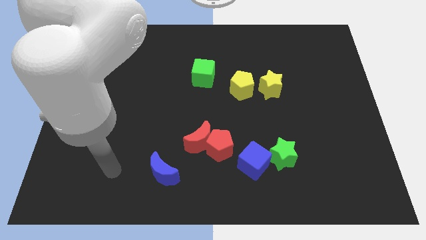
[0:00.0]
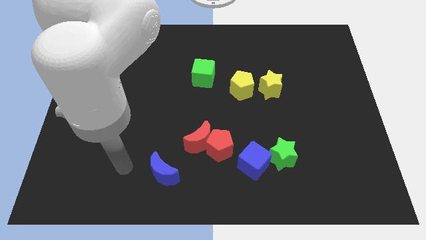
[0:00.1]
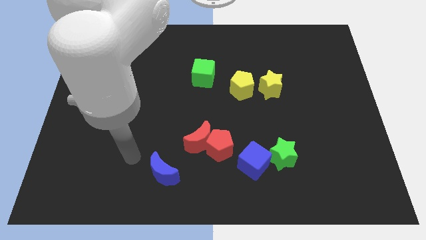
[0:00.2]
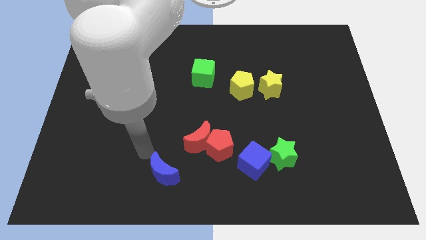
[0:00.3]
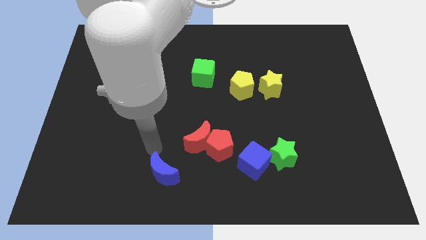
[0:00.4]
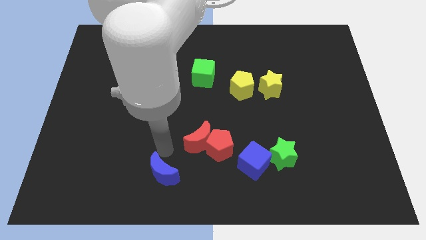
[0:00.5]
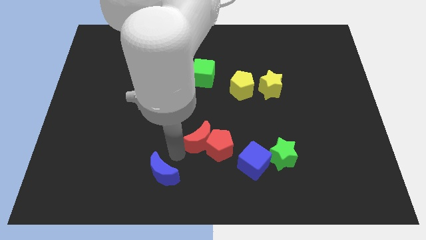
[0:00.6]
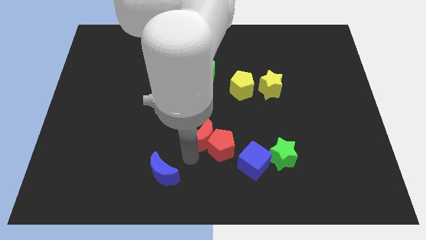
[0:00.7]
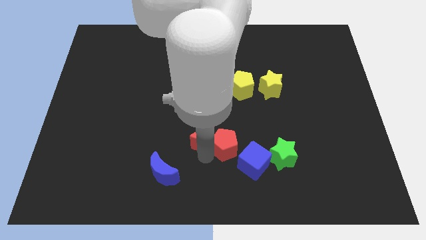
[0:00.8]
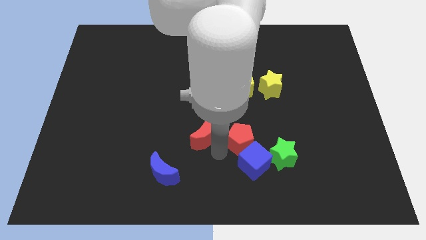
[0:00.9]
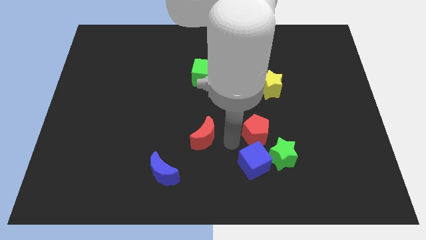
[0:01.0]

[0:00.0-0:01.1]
pull the red moon apart from the red pentagon

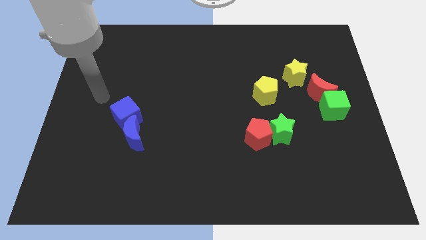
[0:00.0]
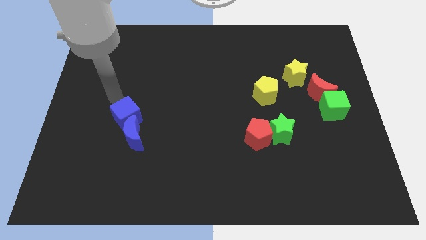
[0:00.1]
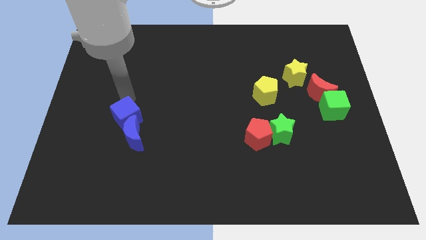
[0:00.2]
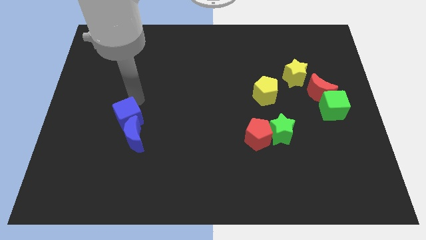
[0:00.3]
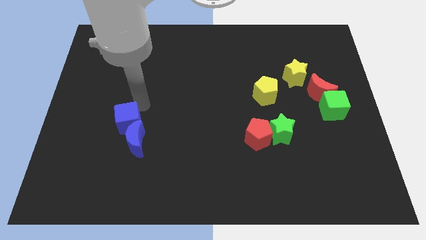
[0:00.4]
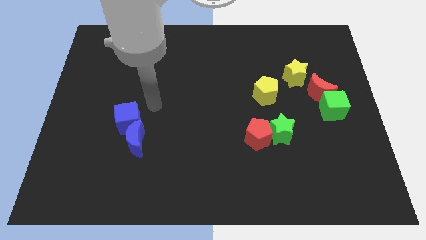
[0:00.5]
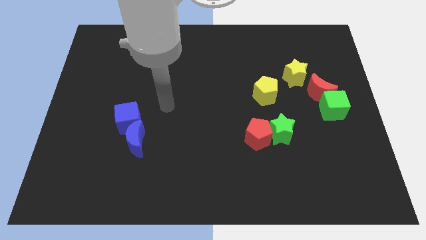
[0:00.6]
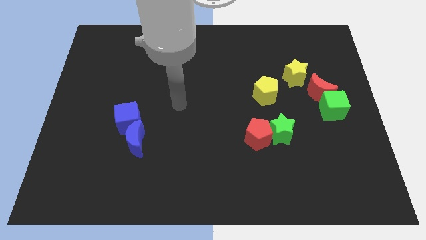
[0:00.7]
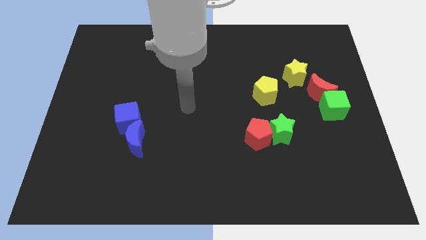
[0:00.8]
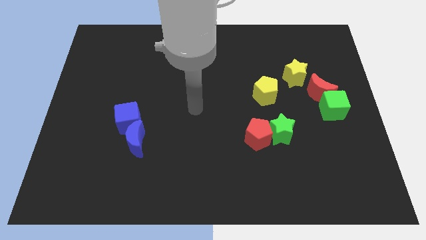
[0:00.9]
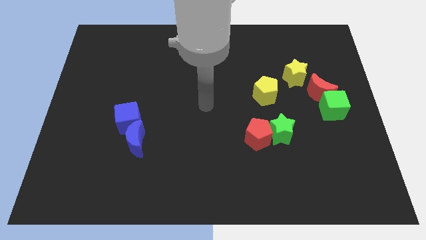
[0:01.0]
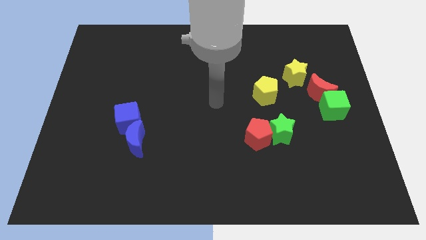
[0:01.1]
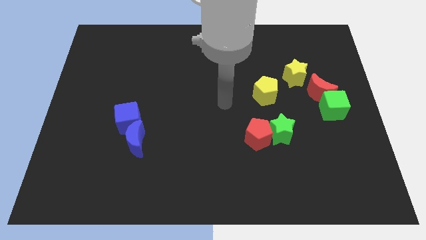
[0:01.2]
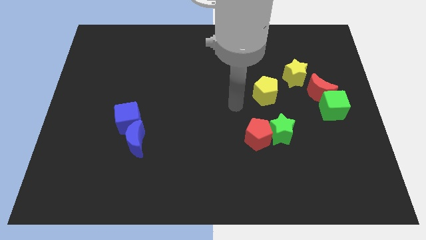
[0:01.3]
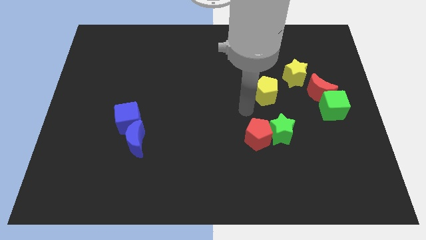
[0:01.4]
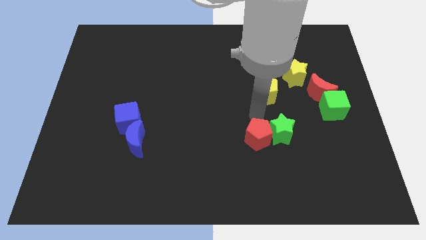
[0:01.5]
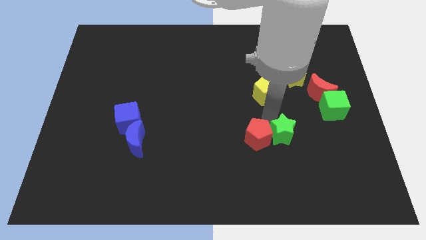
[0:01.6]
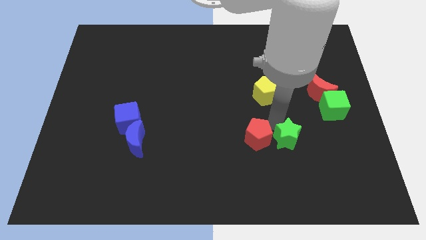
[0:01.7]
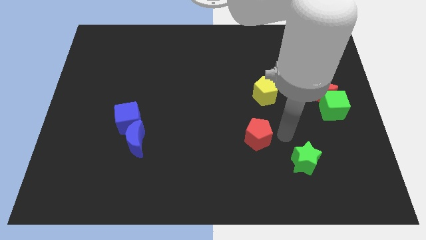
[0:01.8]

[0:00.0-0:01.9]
move the red pentagon away from the green star

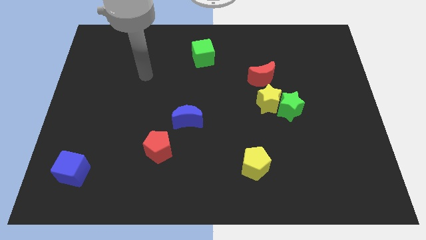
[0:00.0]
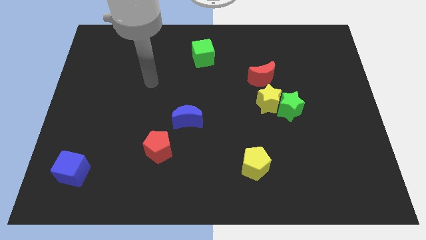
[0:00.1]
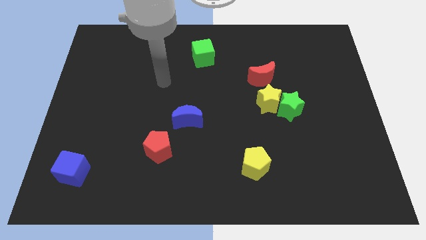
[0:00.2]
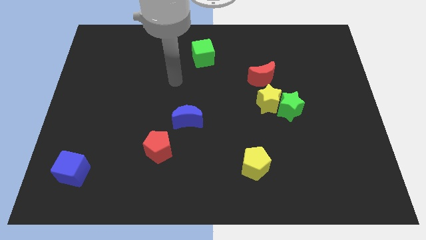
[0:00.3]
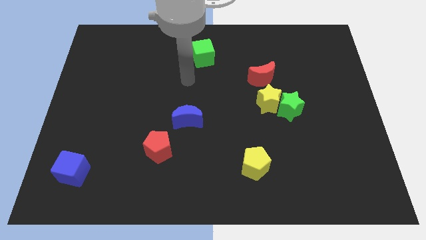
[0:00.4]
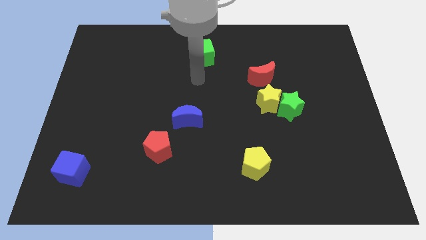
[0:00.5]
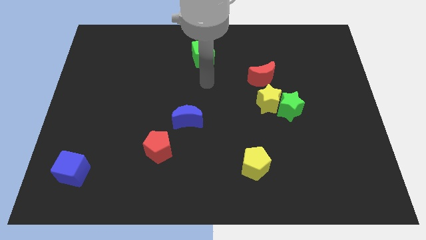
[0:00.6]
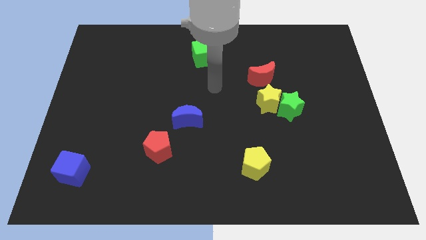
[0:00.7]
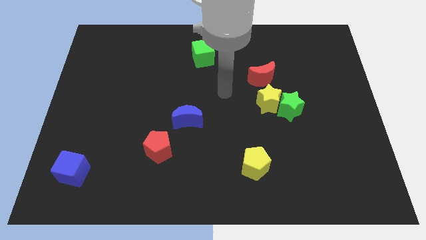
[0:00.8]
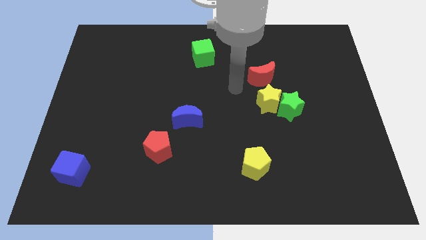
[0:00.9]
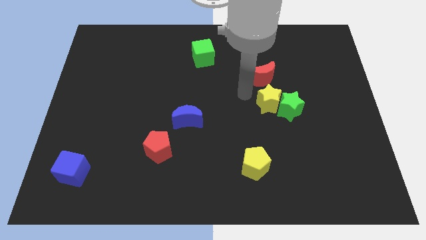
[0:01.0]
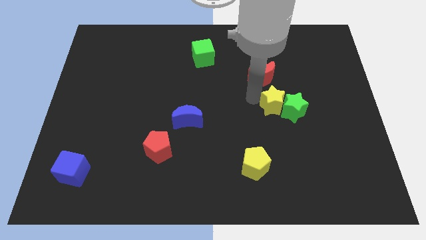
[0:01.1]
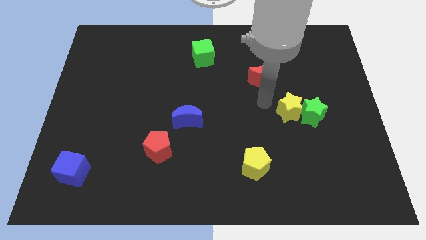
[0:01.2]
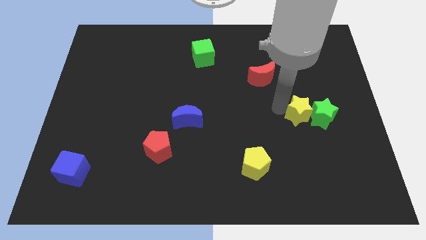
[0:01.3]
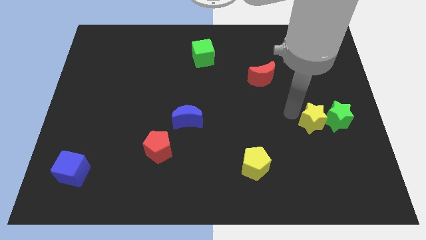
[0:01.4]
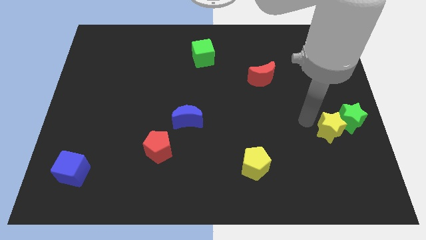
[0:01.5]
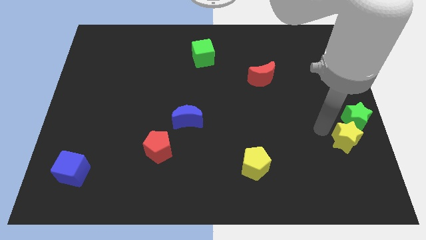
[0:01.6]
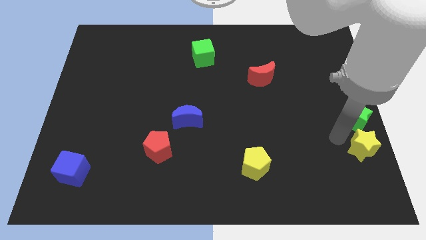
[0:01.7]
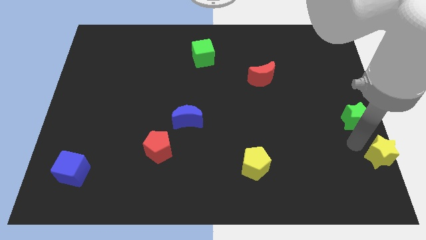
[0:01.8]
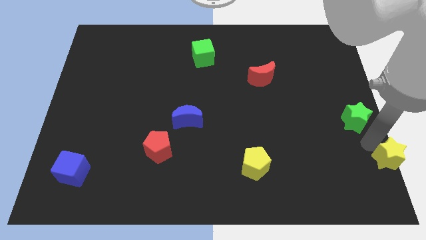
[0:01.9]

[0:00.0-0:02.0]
pull the green star apart from the yellow star

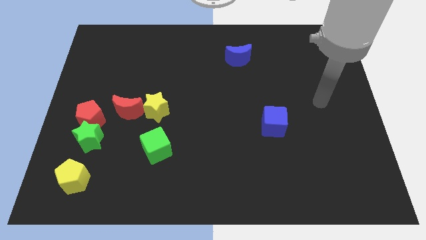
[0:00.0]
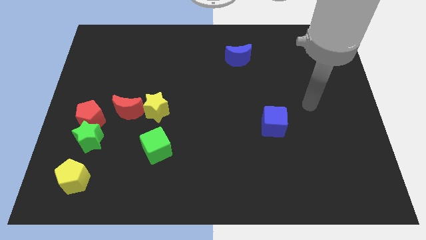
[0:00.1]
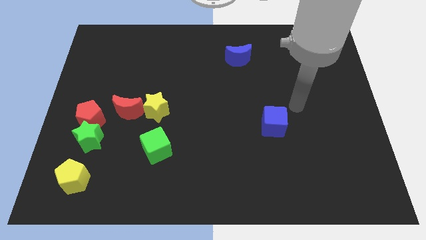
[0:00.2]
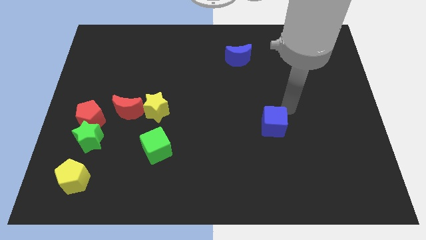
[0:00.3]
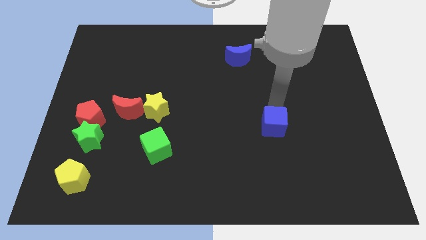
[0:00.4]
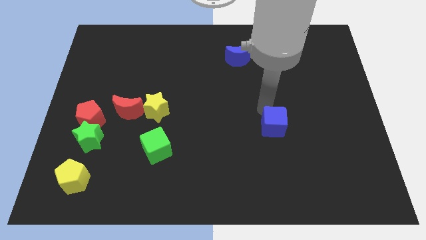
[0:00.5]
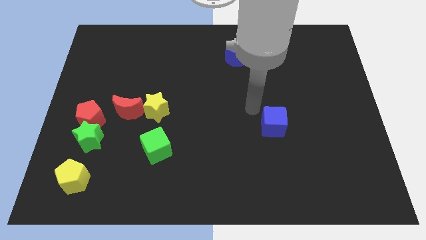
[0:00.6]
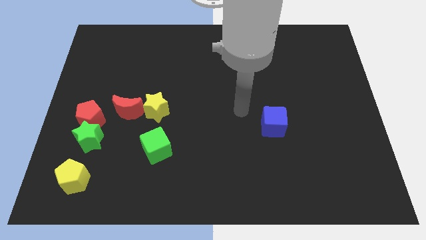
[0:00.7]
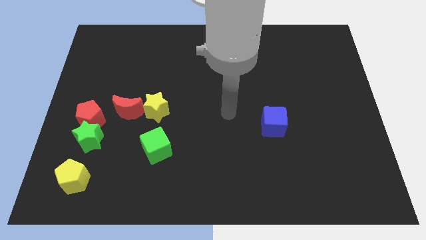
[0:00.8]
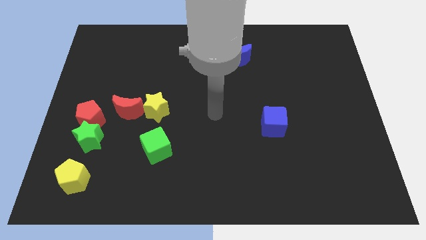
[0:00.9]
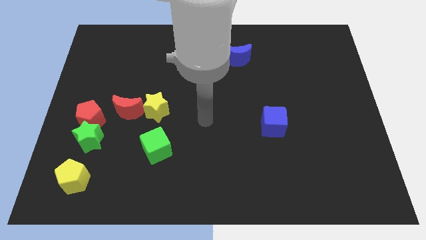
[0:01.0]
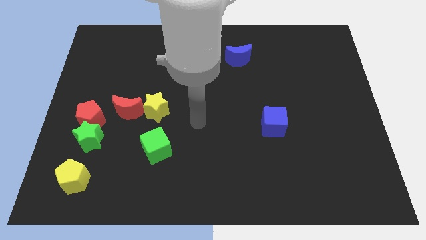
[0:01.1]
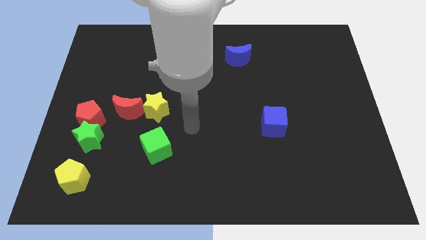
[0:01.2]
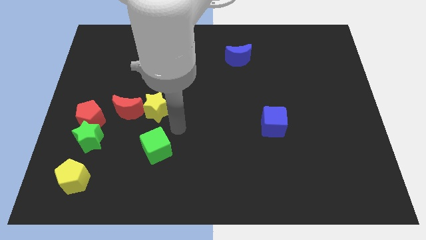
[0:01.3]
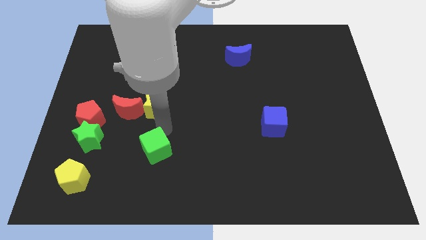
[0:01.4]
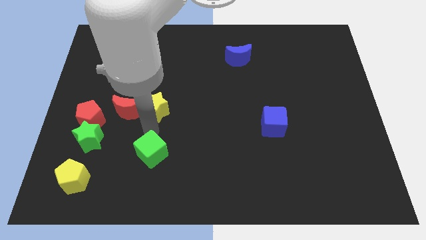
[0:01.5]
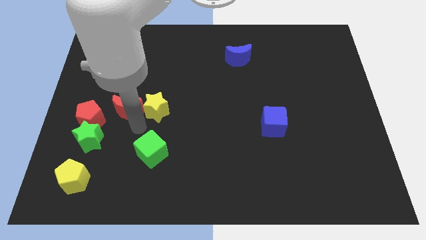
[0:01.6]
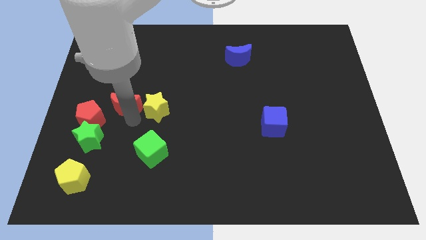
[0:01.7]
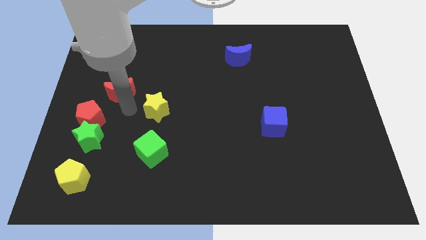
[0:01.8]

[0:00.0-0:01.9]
separate the yellow star from the red moon

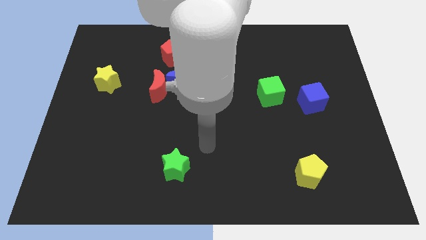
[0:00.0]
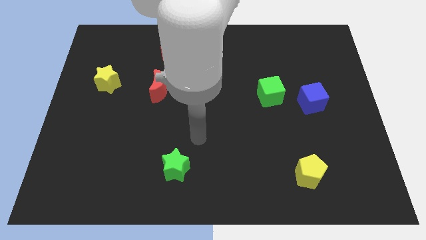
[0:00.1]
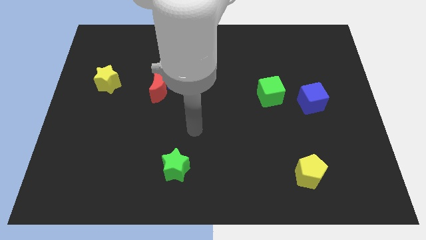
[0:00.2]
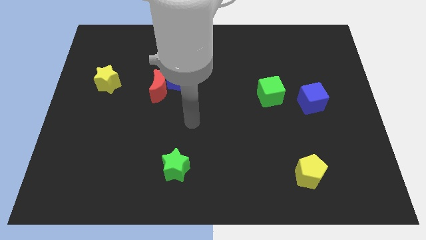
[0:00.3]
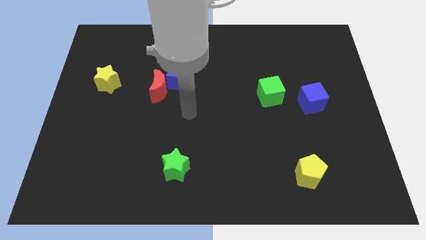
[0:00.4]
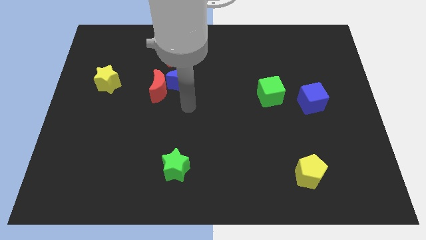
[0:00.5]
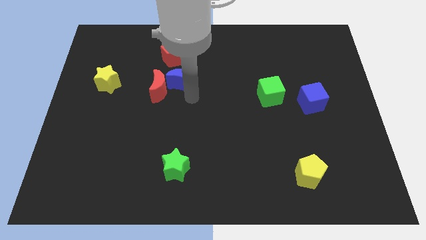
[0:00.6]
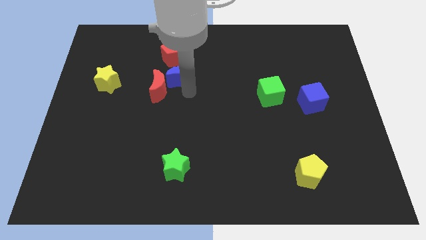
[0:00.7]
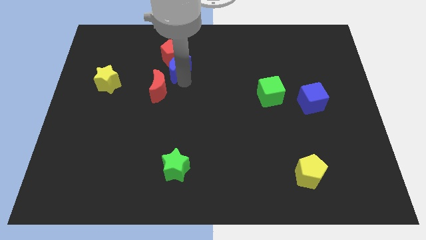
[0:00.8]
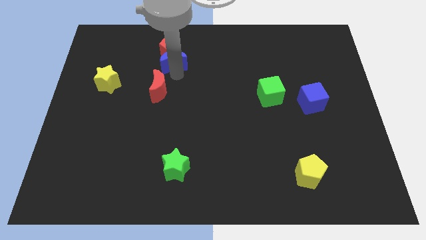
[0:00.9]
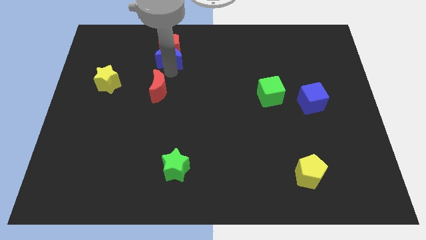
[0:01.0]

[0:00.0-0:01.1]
move the red moon away from the blue moon

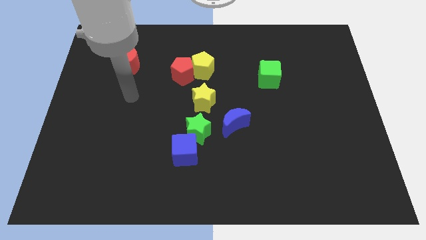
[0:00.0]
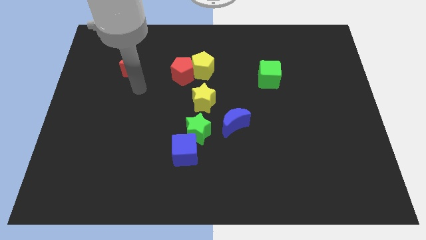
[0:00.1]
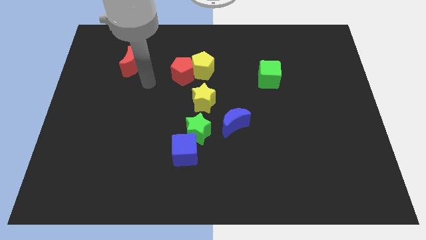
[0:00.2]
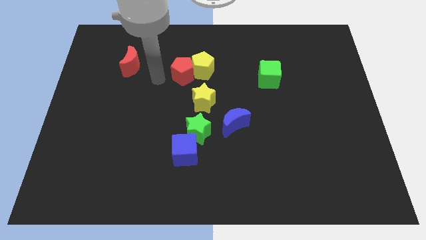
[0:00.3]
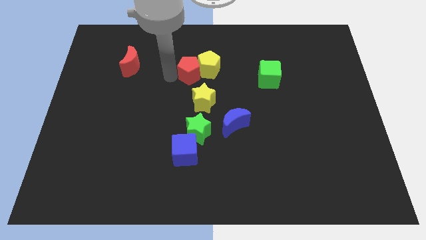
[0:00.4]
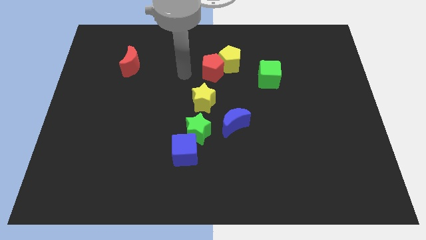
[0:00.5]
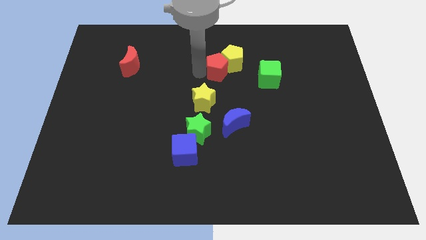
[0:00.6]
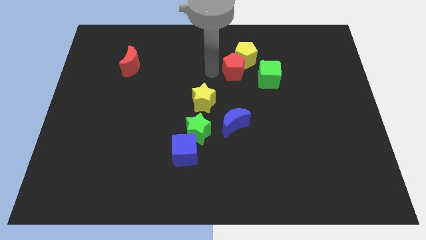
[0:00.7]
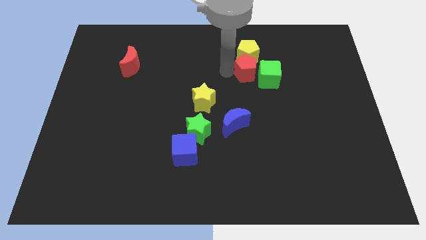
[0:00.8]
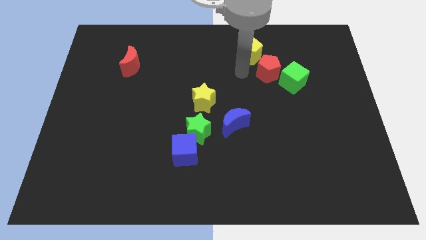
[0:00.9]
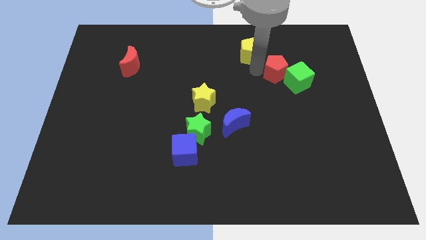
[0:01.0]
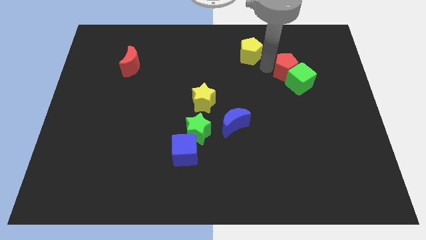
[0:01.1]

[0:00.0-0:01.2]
move the yellow pentagon away from the red pentagon
